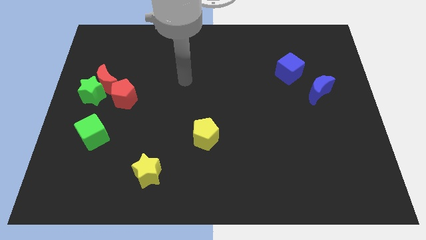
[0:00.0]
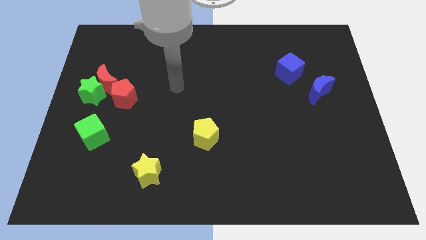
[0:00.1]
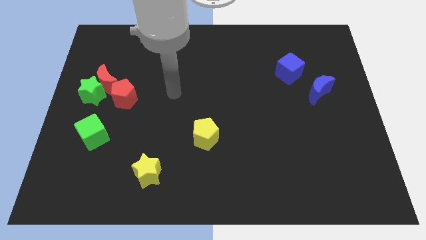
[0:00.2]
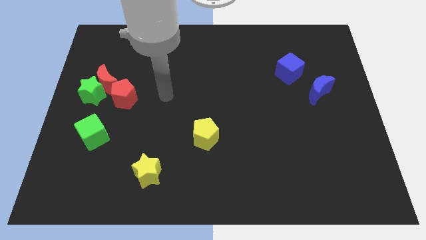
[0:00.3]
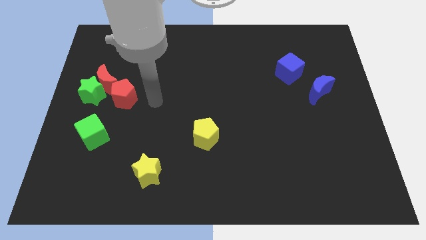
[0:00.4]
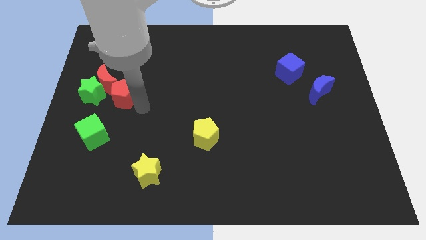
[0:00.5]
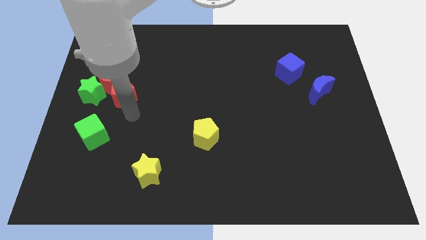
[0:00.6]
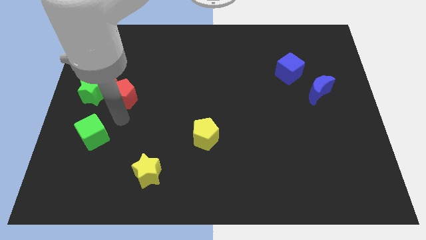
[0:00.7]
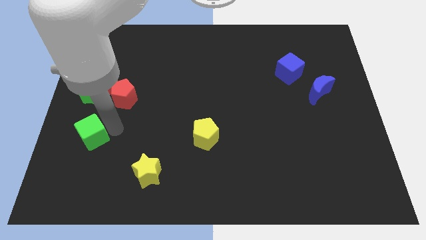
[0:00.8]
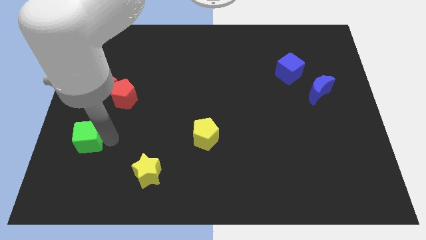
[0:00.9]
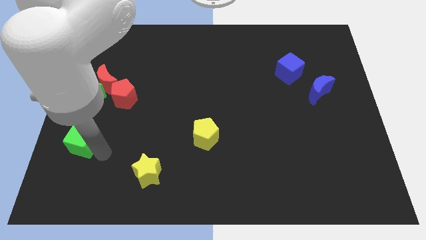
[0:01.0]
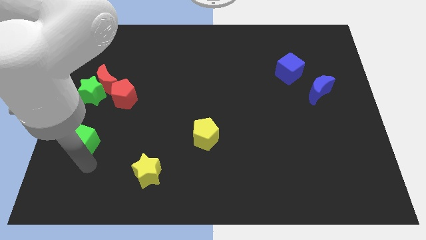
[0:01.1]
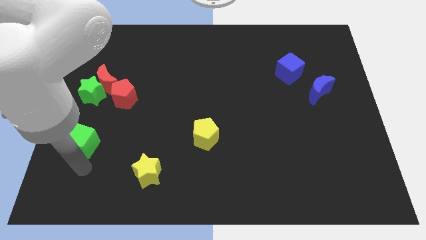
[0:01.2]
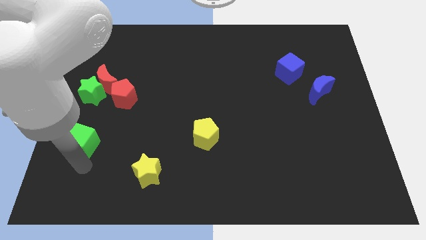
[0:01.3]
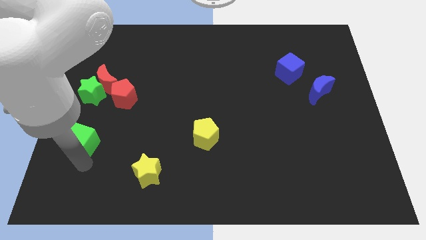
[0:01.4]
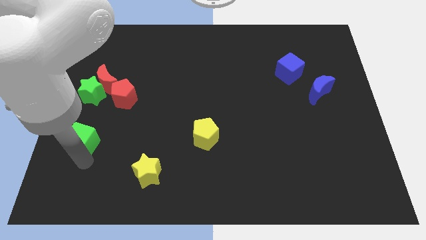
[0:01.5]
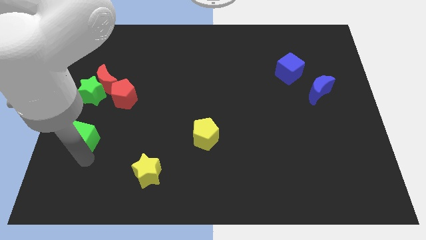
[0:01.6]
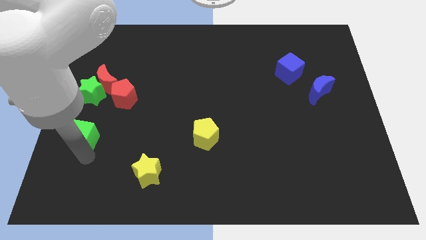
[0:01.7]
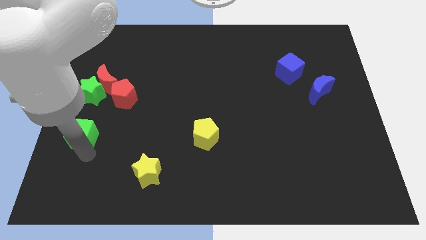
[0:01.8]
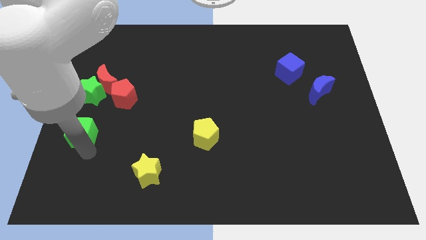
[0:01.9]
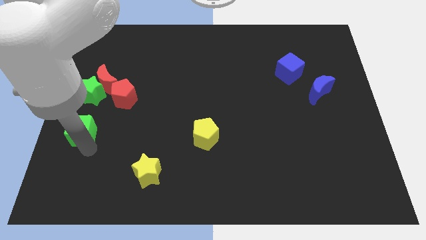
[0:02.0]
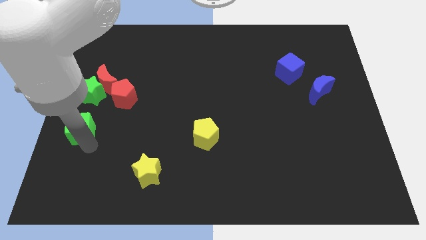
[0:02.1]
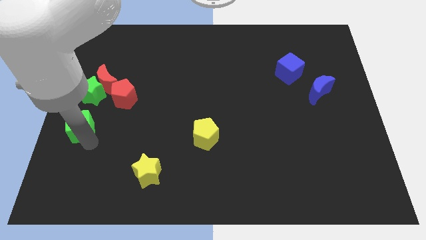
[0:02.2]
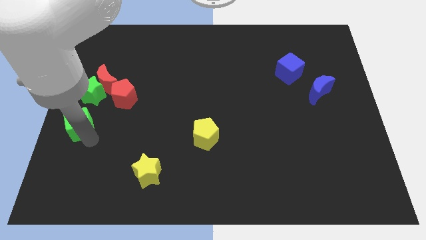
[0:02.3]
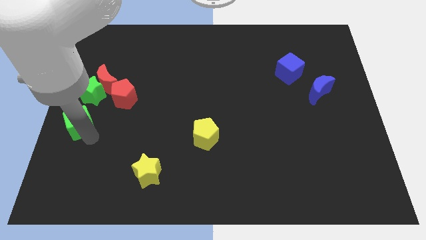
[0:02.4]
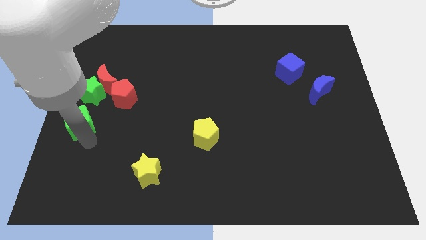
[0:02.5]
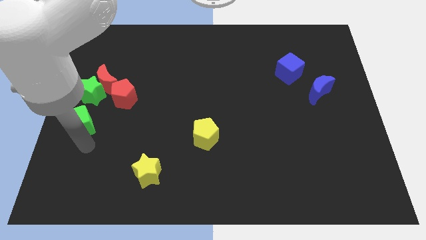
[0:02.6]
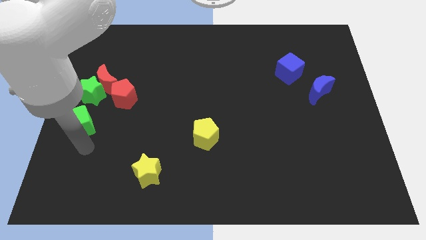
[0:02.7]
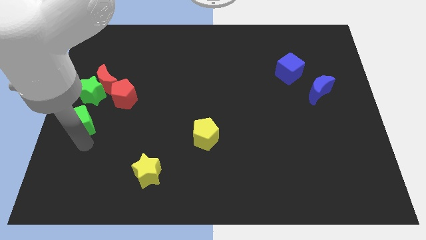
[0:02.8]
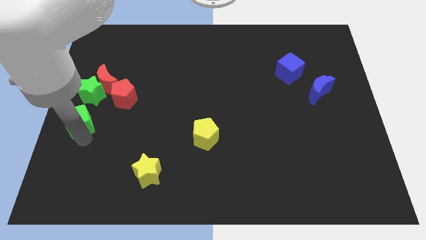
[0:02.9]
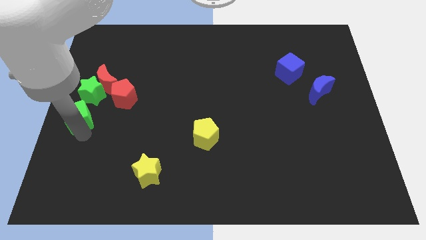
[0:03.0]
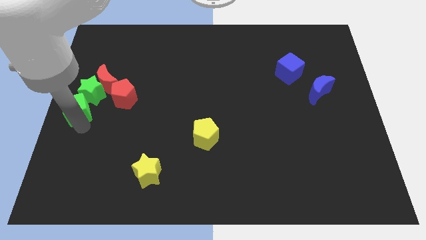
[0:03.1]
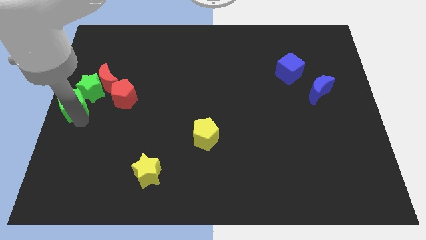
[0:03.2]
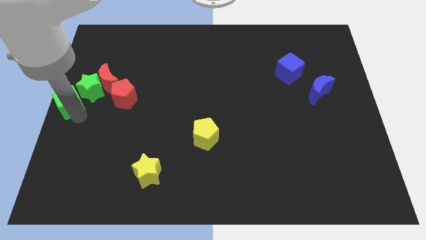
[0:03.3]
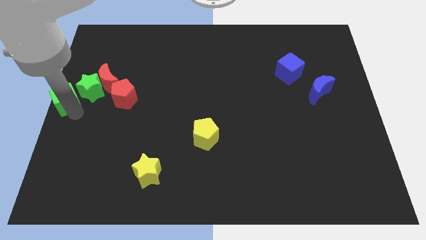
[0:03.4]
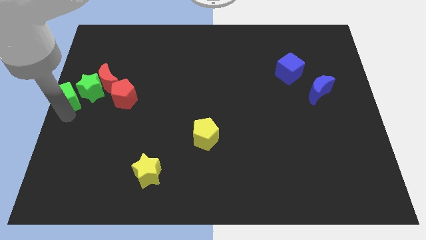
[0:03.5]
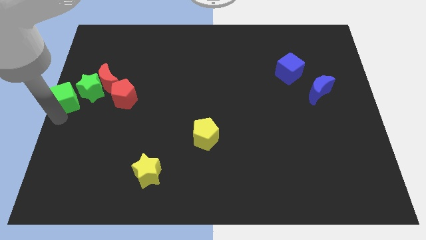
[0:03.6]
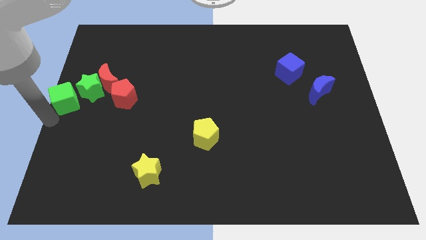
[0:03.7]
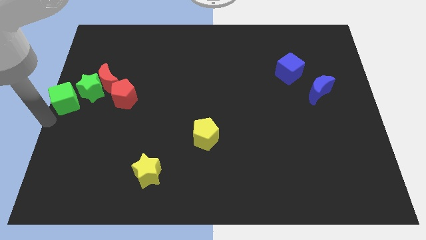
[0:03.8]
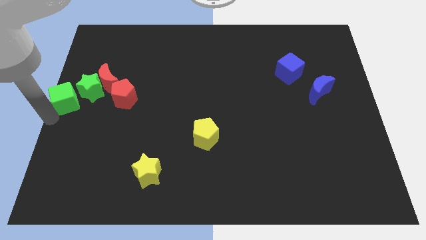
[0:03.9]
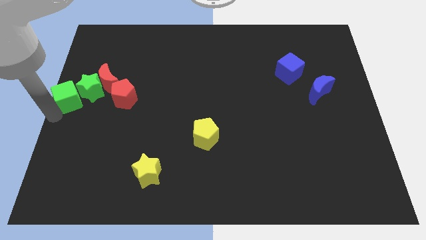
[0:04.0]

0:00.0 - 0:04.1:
slightly slide the green cube up

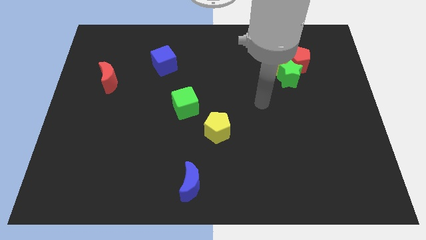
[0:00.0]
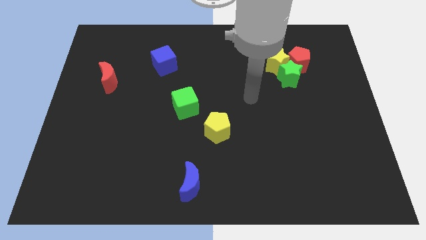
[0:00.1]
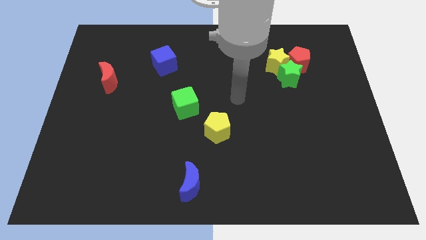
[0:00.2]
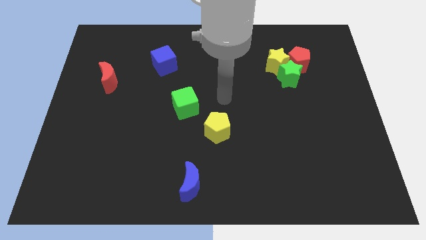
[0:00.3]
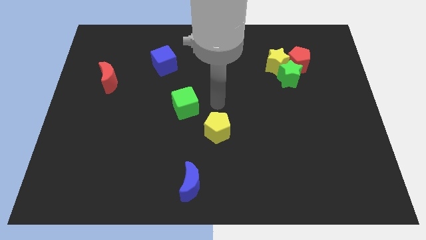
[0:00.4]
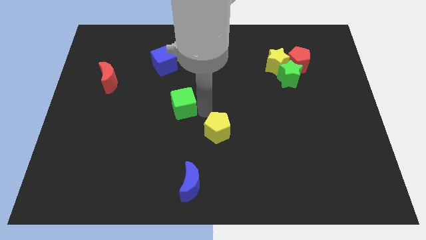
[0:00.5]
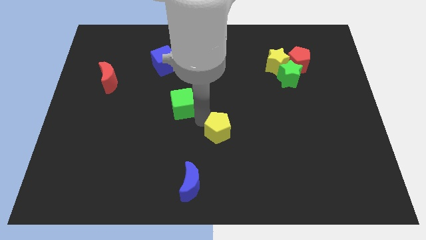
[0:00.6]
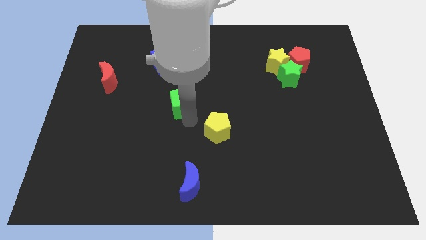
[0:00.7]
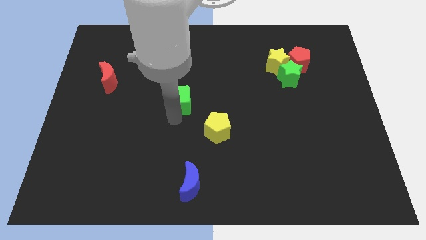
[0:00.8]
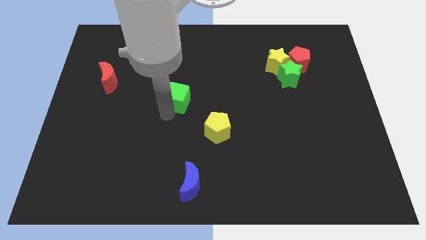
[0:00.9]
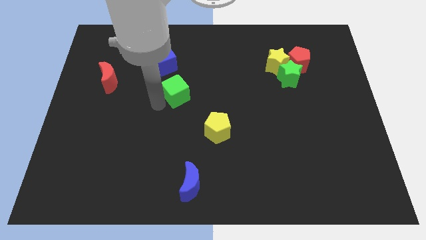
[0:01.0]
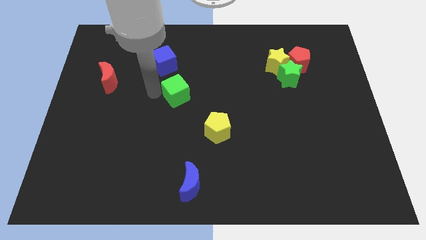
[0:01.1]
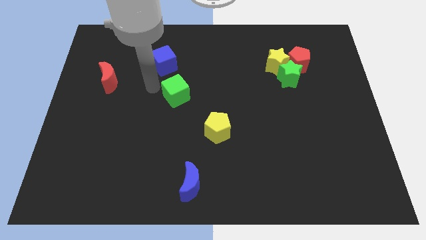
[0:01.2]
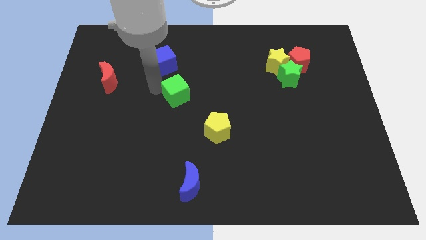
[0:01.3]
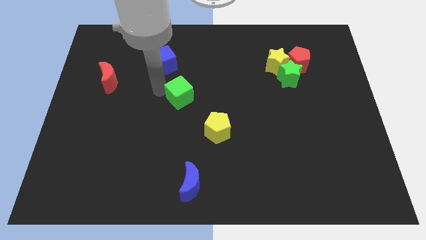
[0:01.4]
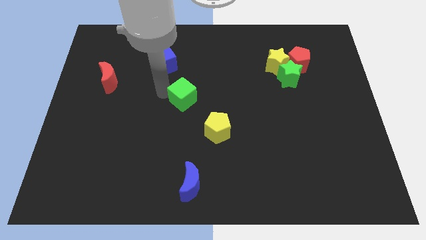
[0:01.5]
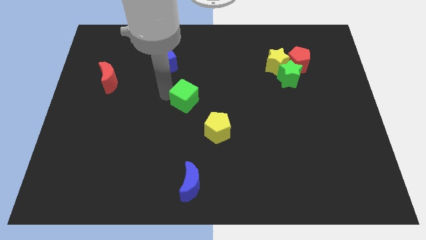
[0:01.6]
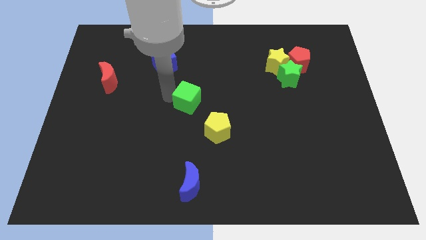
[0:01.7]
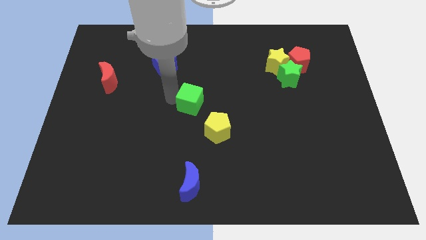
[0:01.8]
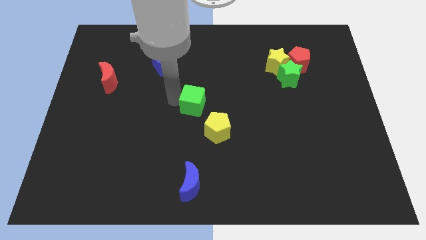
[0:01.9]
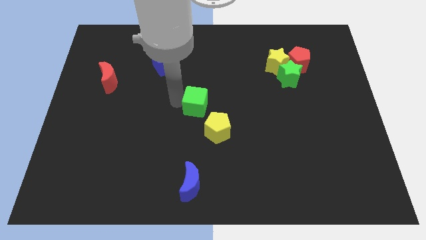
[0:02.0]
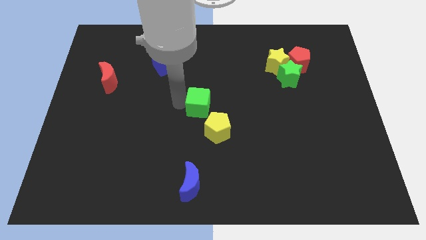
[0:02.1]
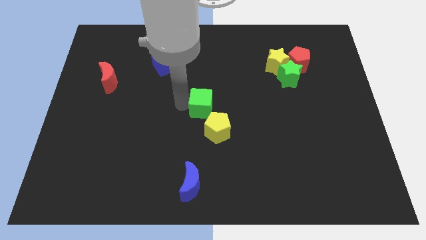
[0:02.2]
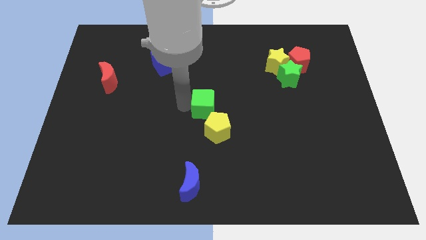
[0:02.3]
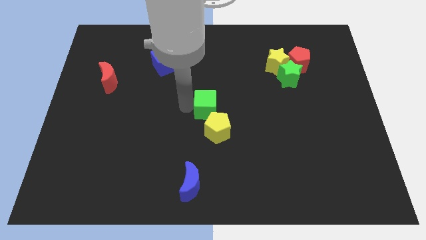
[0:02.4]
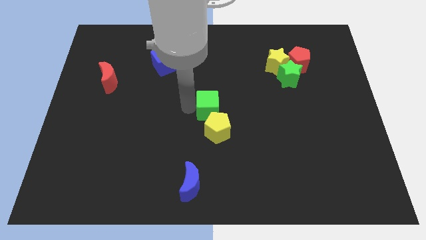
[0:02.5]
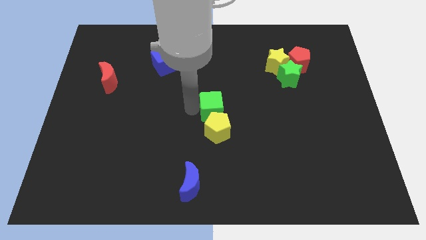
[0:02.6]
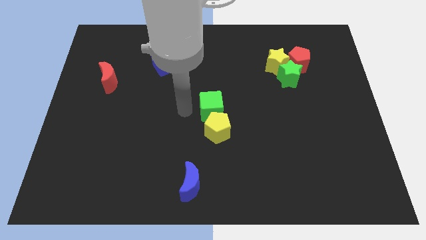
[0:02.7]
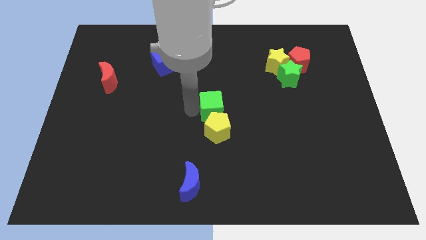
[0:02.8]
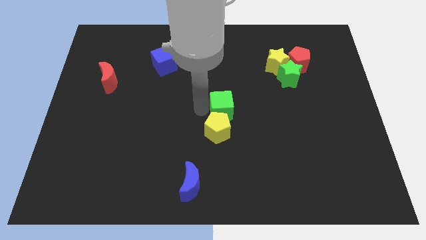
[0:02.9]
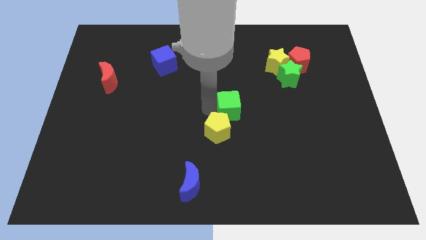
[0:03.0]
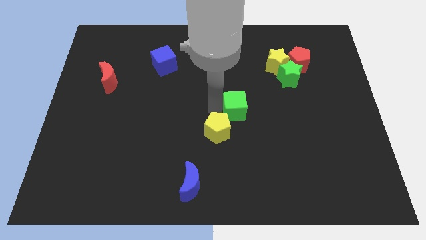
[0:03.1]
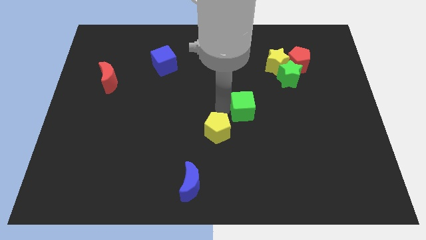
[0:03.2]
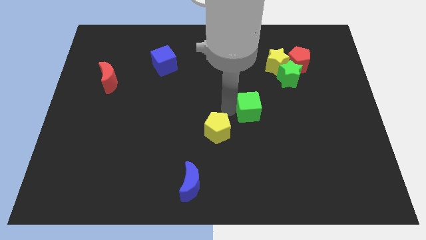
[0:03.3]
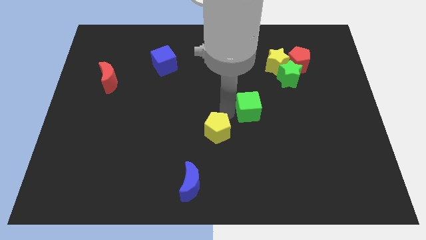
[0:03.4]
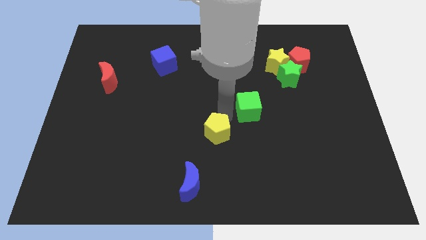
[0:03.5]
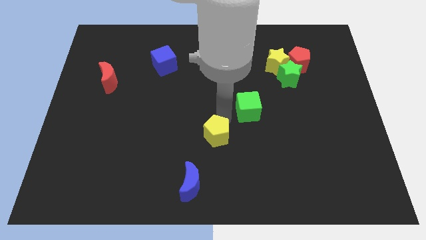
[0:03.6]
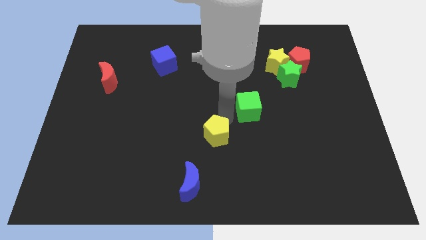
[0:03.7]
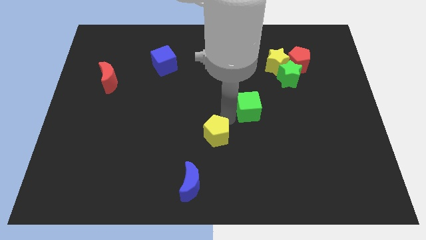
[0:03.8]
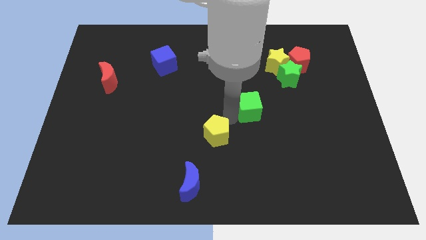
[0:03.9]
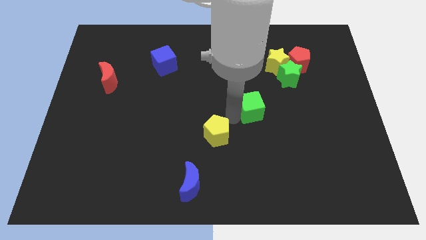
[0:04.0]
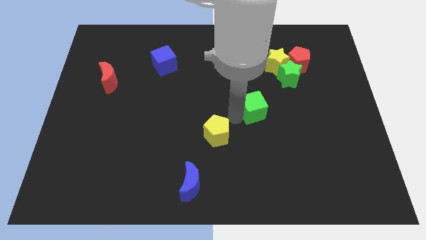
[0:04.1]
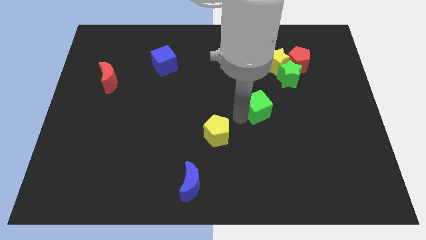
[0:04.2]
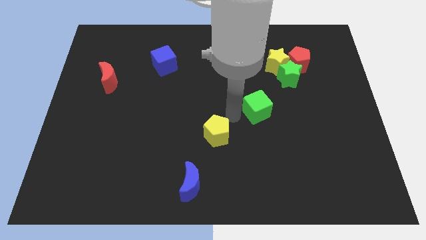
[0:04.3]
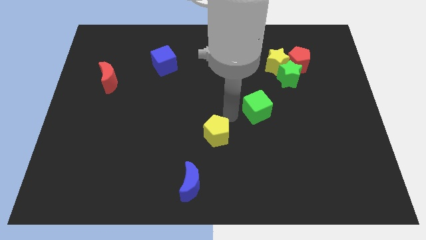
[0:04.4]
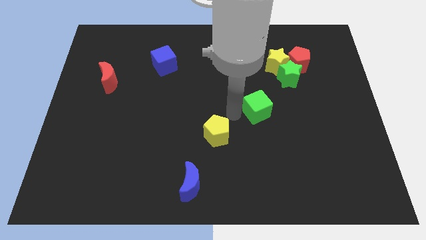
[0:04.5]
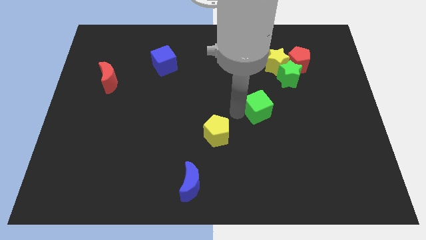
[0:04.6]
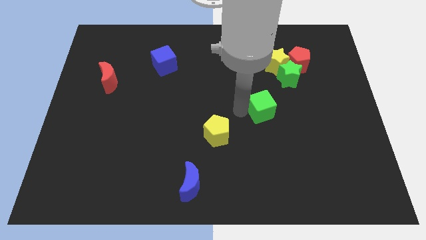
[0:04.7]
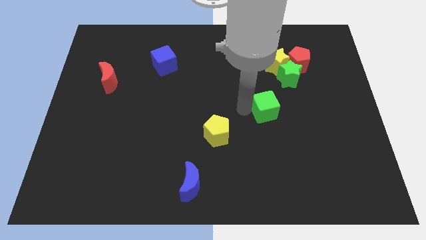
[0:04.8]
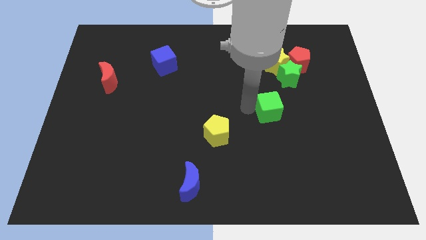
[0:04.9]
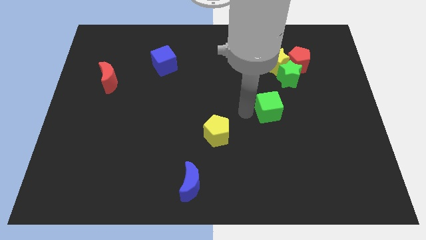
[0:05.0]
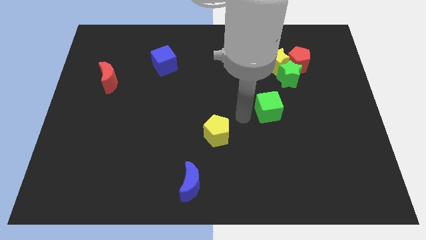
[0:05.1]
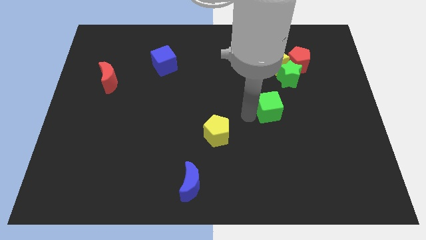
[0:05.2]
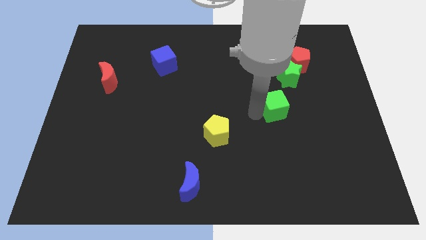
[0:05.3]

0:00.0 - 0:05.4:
push the green cube to the right
